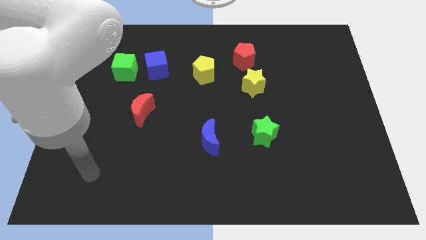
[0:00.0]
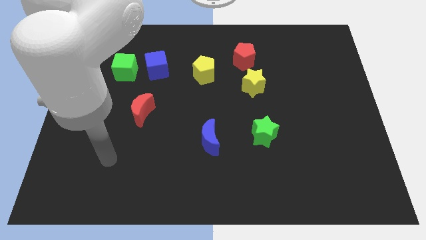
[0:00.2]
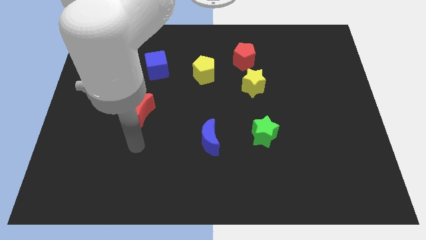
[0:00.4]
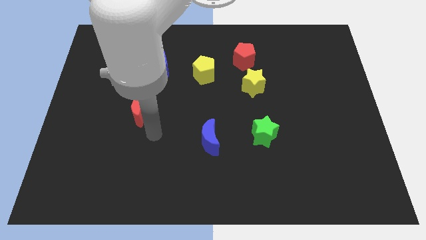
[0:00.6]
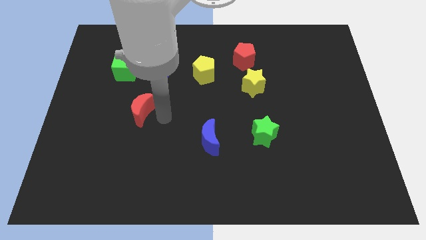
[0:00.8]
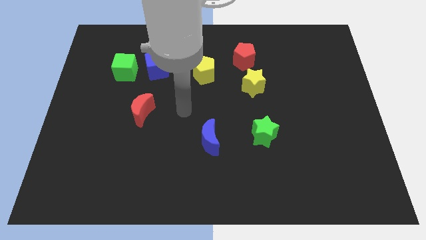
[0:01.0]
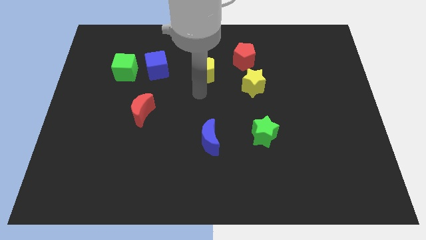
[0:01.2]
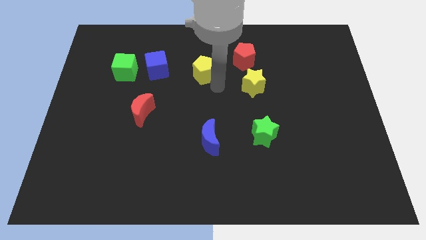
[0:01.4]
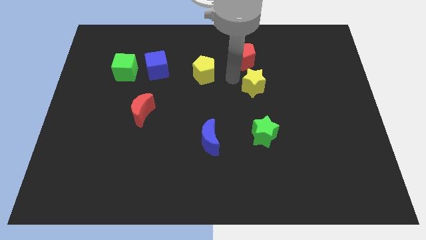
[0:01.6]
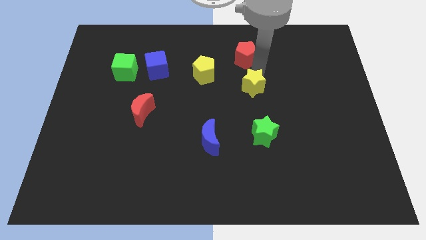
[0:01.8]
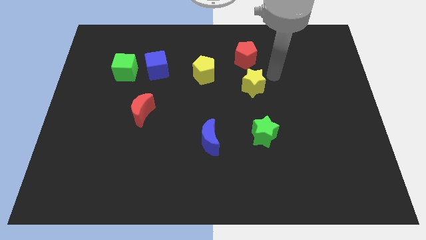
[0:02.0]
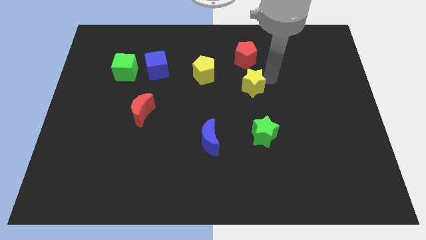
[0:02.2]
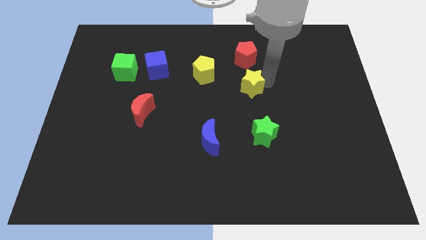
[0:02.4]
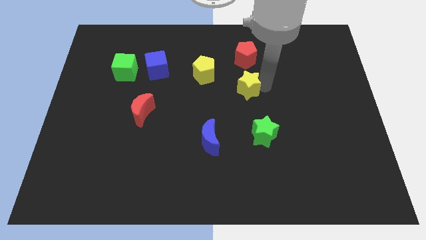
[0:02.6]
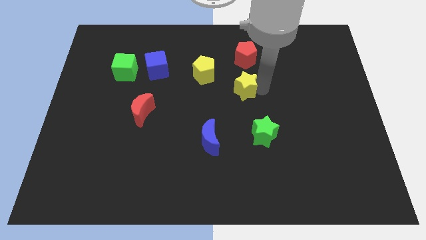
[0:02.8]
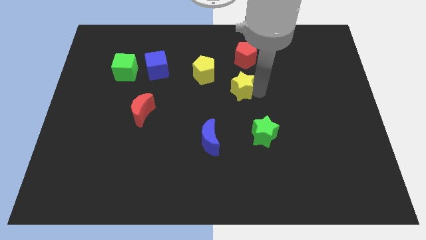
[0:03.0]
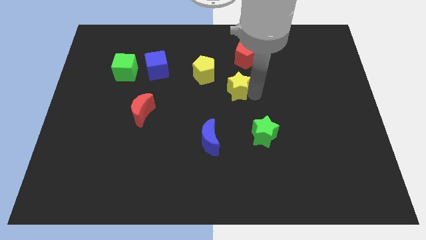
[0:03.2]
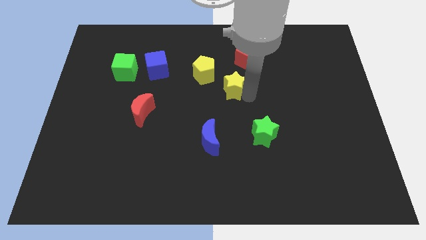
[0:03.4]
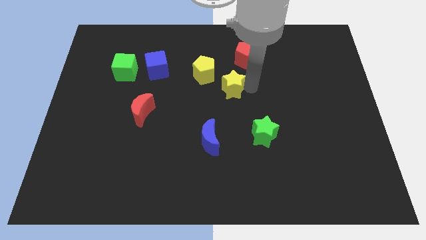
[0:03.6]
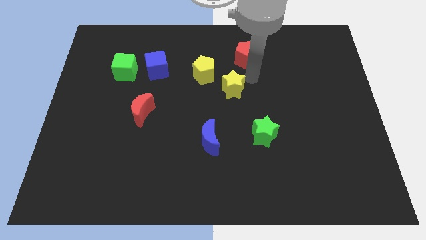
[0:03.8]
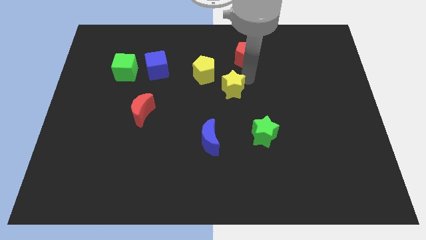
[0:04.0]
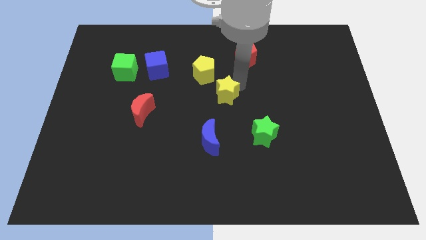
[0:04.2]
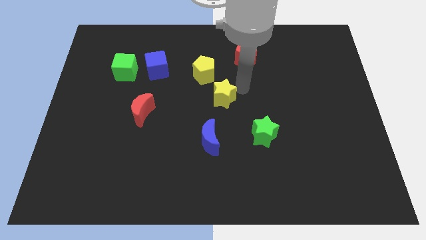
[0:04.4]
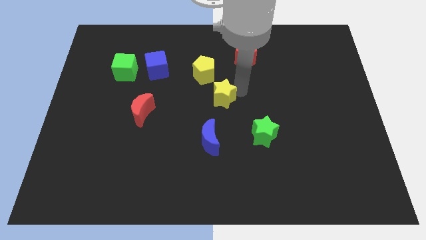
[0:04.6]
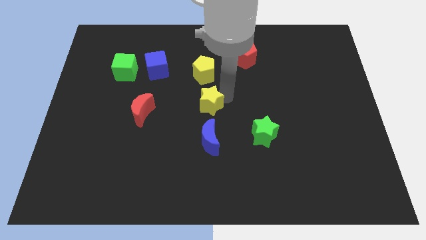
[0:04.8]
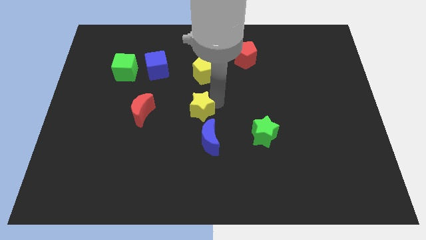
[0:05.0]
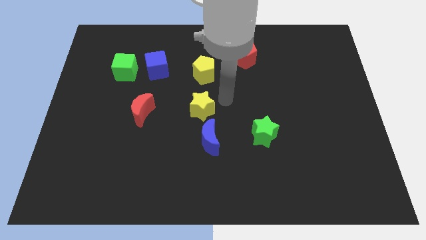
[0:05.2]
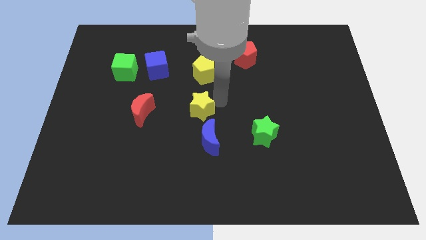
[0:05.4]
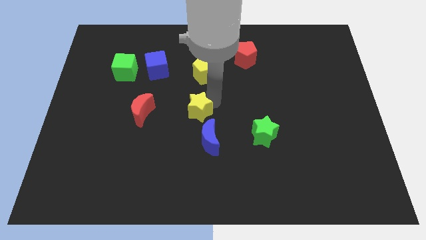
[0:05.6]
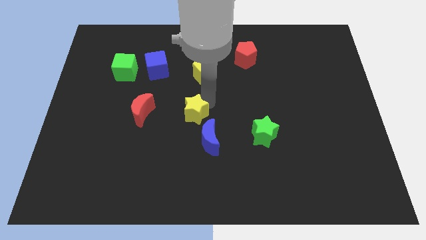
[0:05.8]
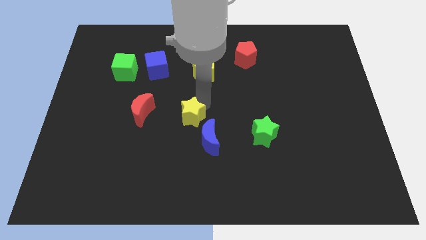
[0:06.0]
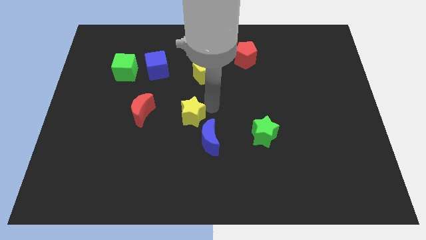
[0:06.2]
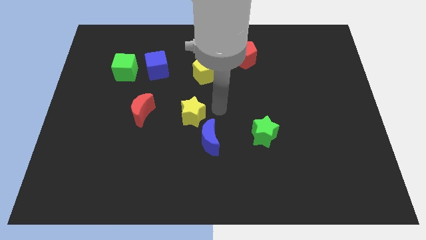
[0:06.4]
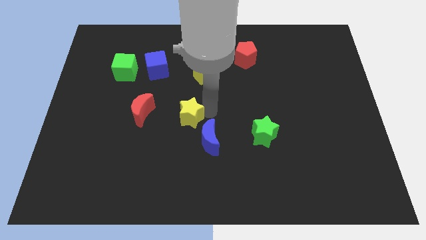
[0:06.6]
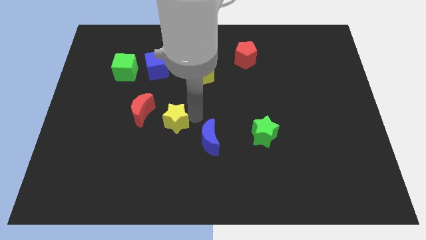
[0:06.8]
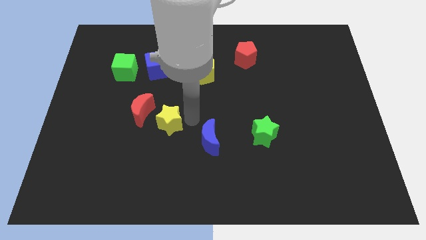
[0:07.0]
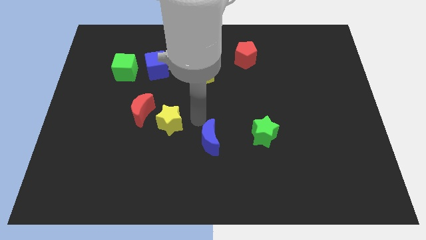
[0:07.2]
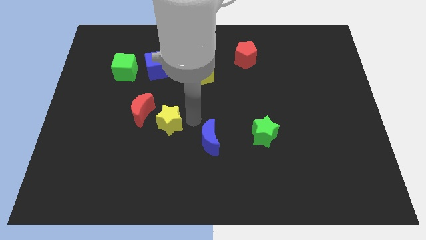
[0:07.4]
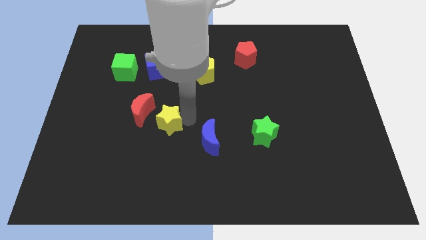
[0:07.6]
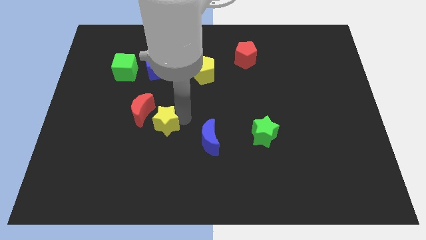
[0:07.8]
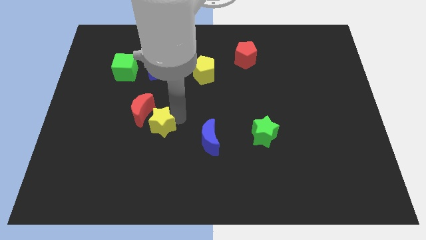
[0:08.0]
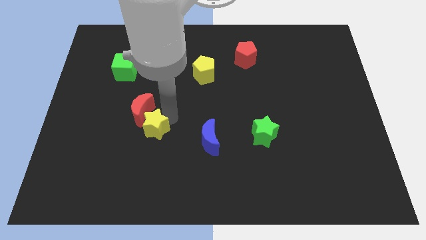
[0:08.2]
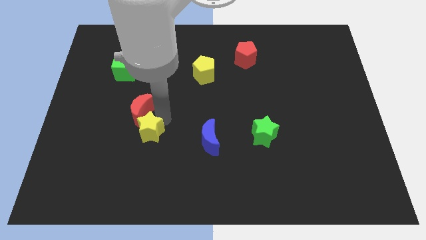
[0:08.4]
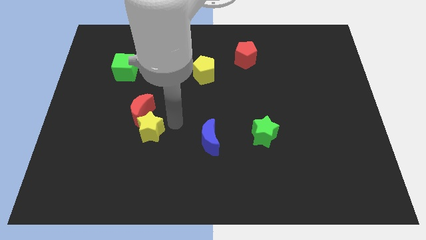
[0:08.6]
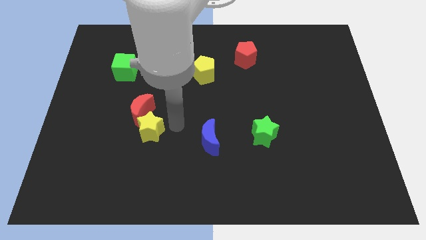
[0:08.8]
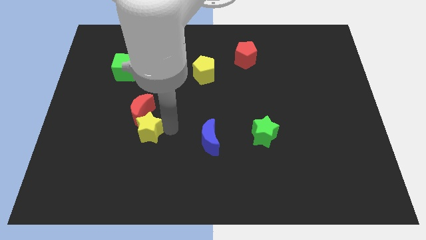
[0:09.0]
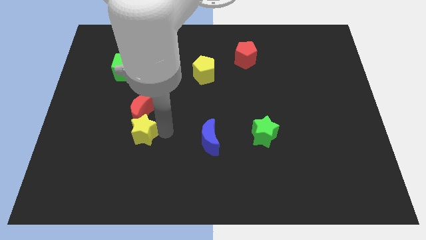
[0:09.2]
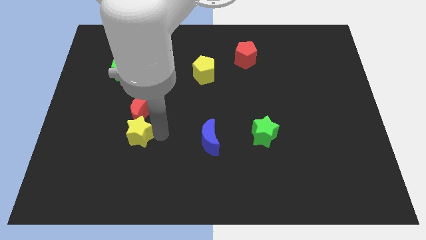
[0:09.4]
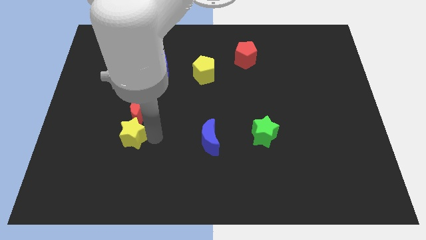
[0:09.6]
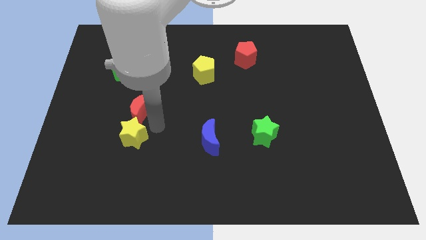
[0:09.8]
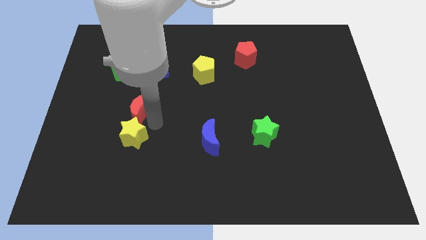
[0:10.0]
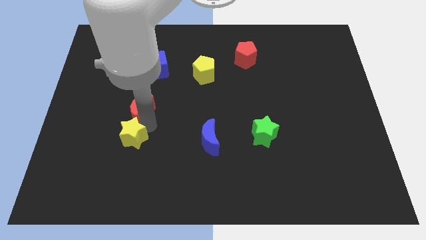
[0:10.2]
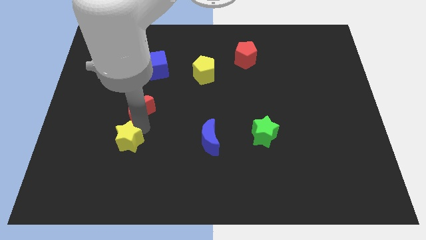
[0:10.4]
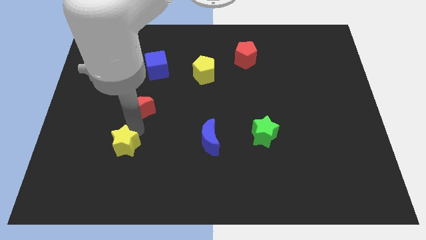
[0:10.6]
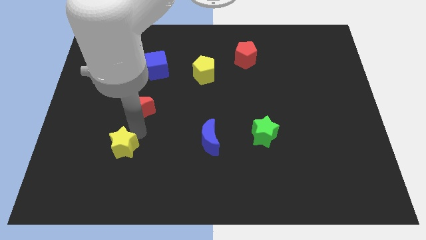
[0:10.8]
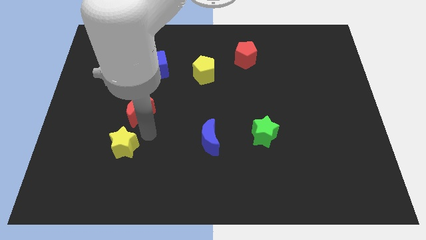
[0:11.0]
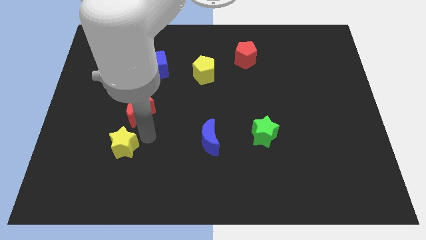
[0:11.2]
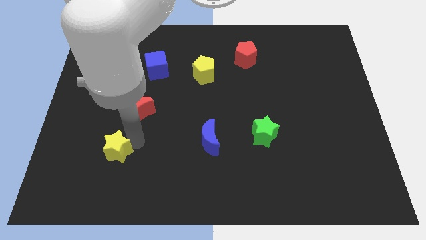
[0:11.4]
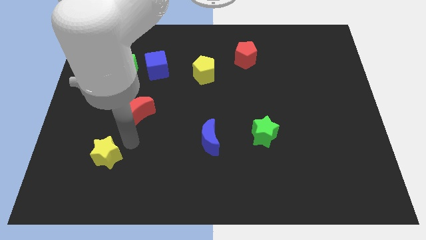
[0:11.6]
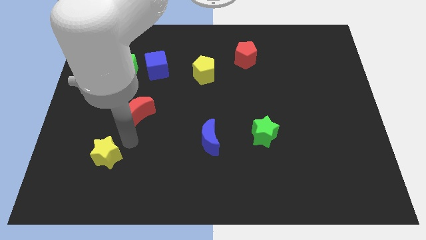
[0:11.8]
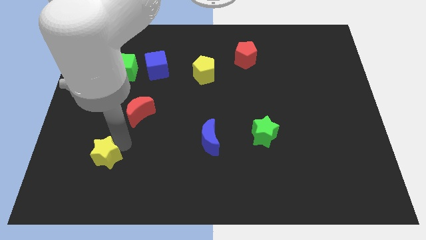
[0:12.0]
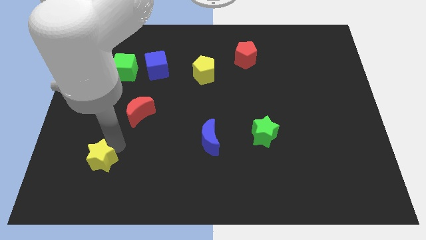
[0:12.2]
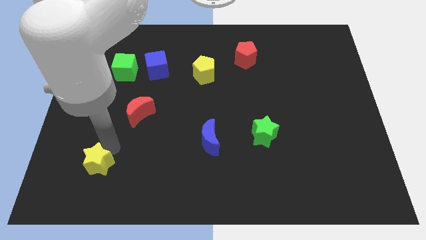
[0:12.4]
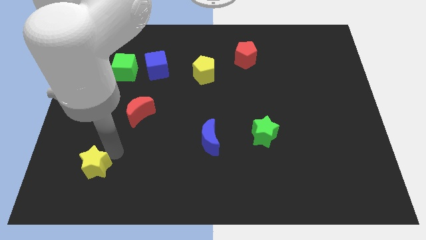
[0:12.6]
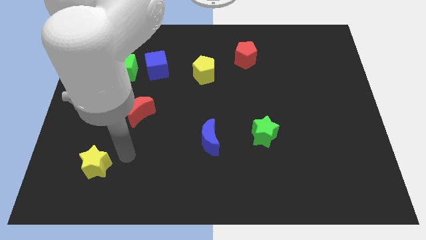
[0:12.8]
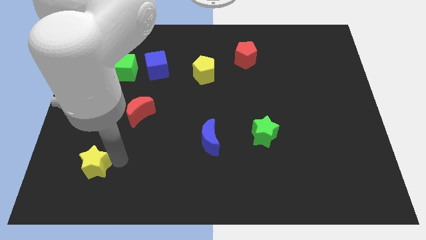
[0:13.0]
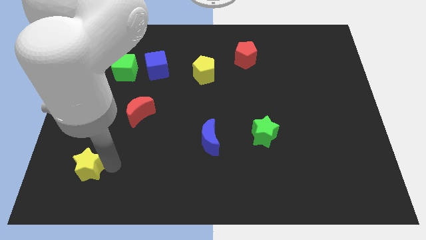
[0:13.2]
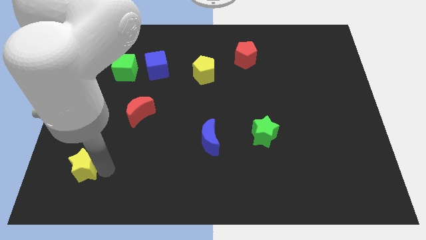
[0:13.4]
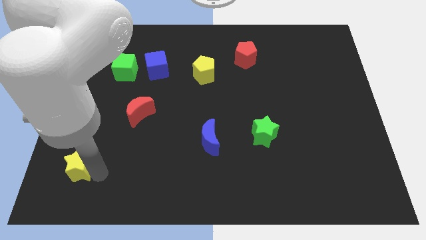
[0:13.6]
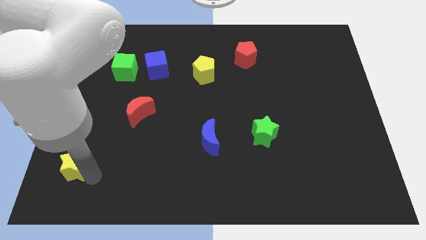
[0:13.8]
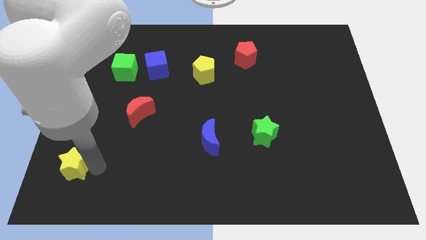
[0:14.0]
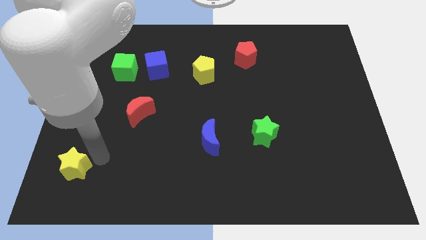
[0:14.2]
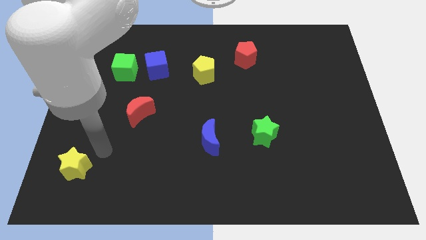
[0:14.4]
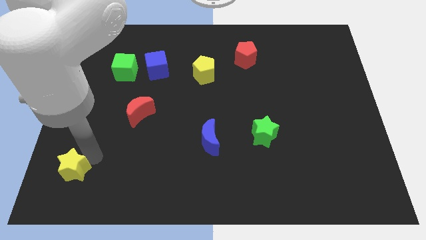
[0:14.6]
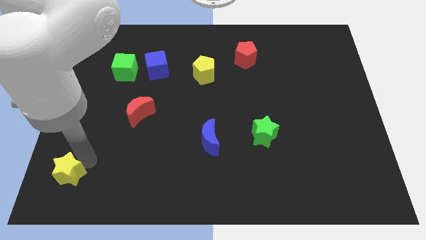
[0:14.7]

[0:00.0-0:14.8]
push the yellow star to the lower left corner
